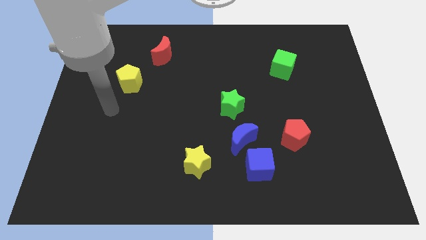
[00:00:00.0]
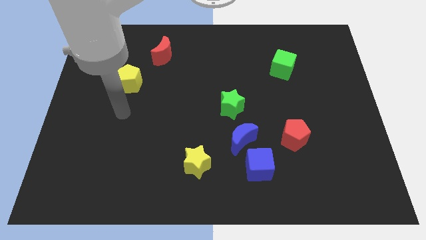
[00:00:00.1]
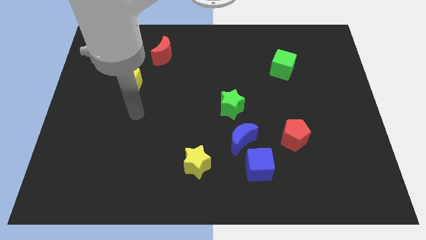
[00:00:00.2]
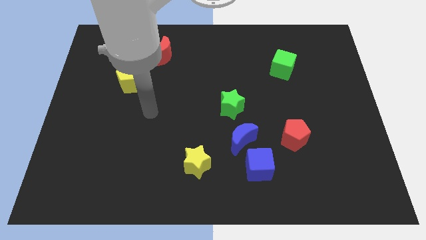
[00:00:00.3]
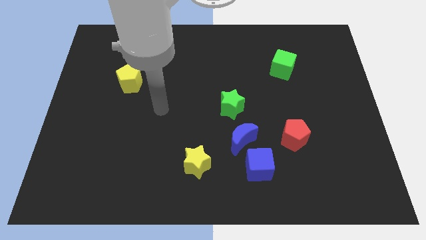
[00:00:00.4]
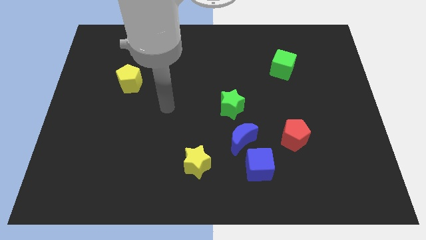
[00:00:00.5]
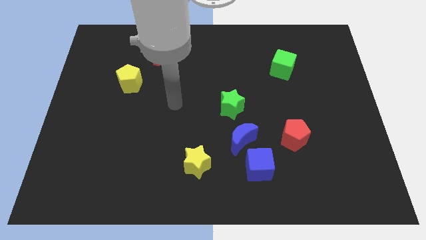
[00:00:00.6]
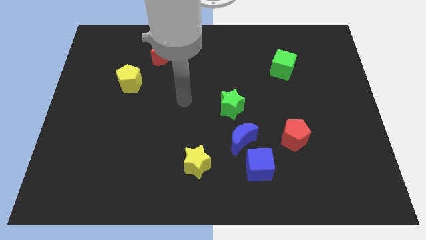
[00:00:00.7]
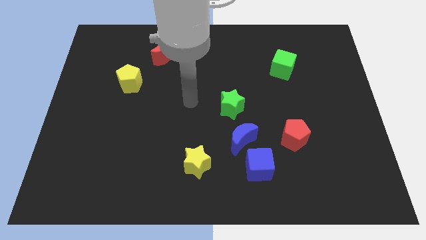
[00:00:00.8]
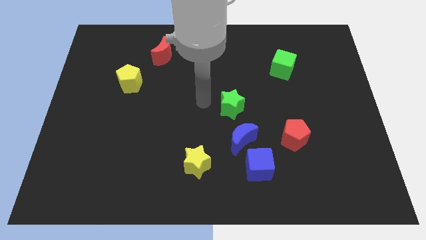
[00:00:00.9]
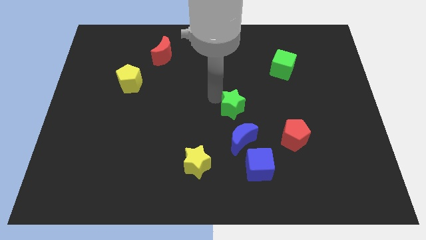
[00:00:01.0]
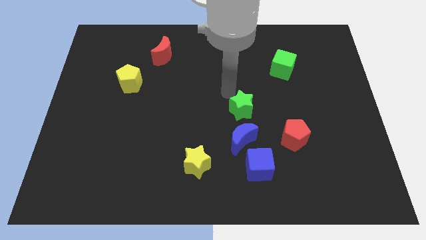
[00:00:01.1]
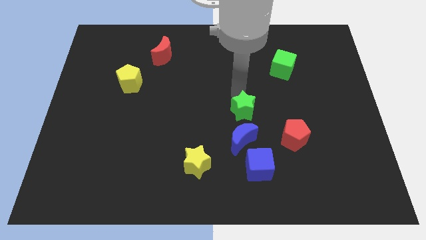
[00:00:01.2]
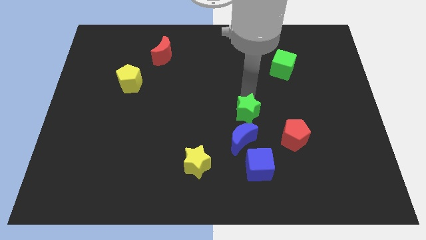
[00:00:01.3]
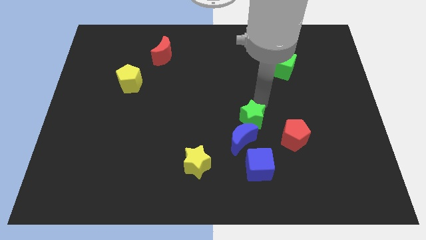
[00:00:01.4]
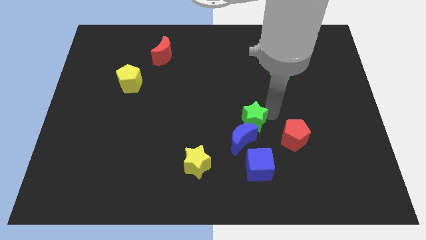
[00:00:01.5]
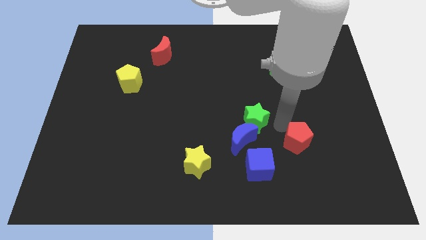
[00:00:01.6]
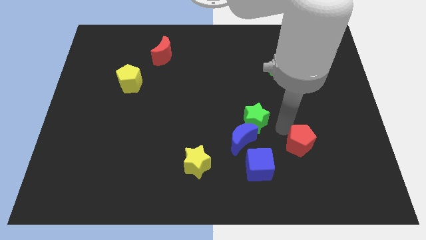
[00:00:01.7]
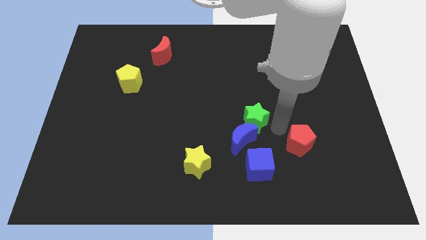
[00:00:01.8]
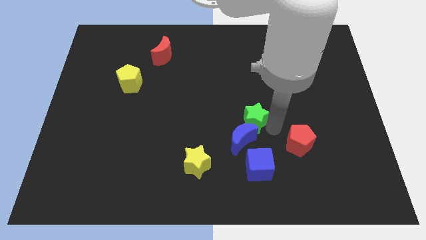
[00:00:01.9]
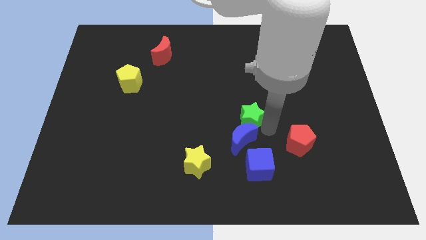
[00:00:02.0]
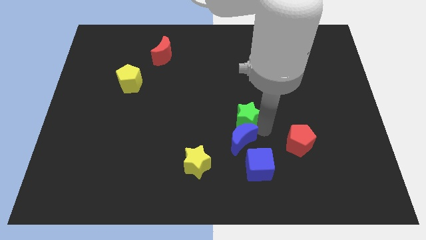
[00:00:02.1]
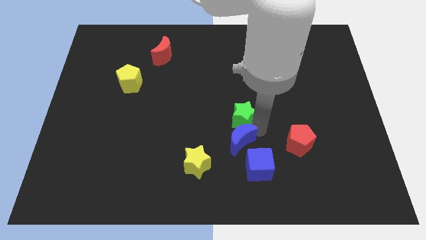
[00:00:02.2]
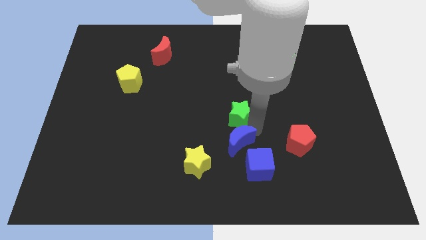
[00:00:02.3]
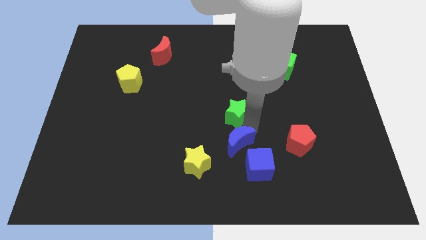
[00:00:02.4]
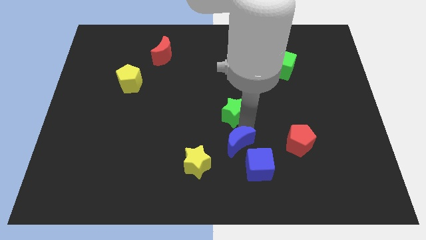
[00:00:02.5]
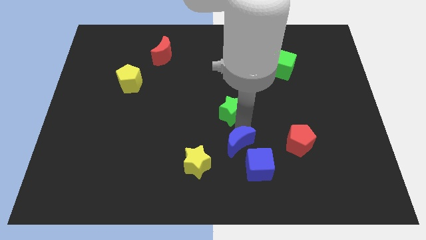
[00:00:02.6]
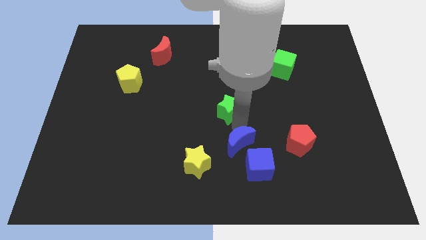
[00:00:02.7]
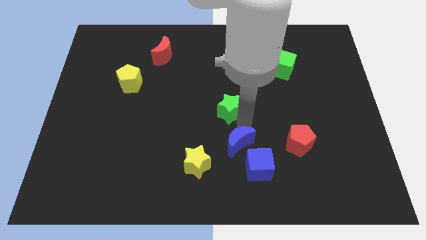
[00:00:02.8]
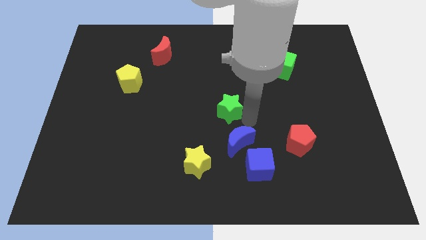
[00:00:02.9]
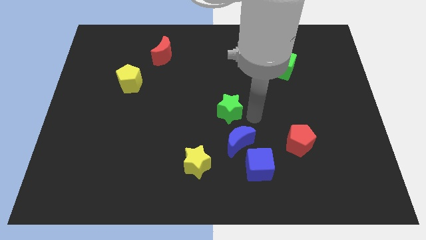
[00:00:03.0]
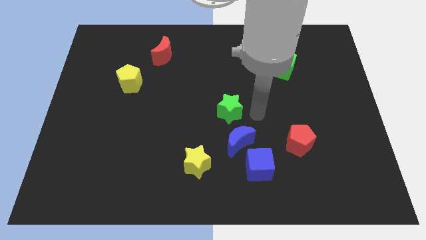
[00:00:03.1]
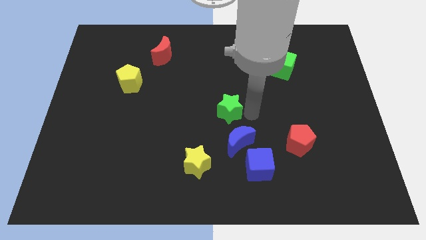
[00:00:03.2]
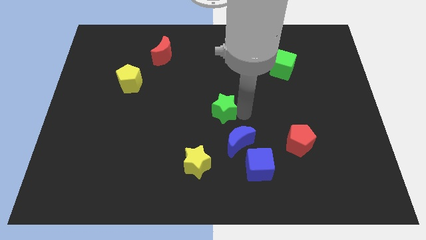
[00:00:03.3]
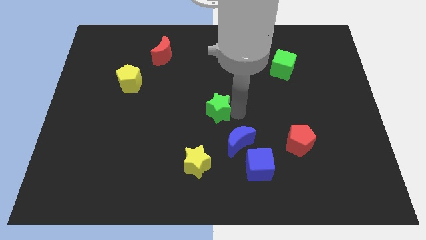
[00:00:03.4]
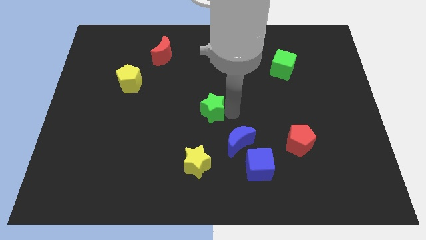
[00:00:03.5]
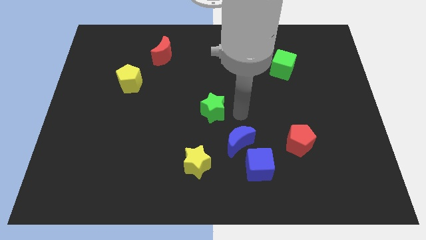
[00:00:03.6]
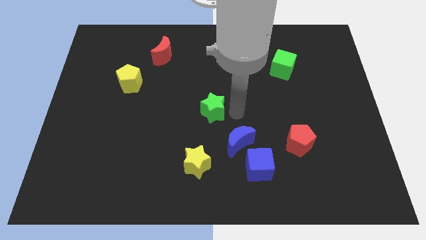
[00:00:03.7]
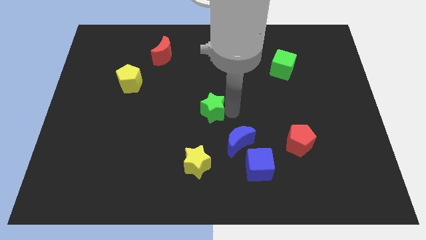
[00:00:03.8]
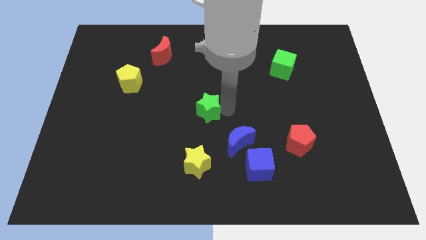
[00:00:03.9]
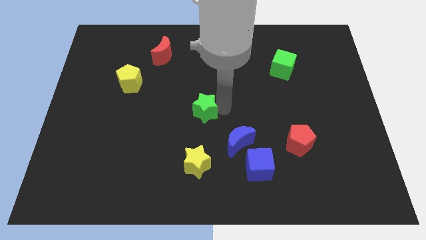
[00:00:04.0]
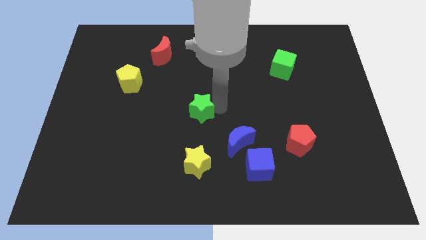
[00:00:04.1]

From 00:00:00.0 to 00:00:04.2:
slightly slide the green star left

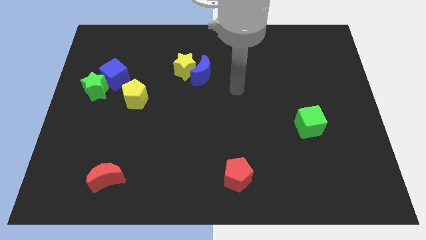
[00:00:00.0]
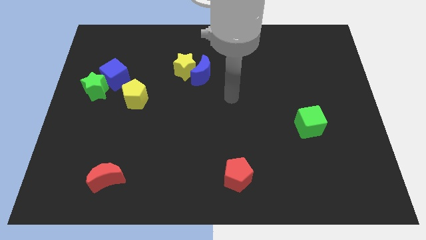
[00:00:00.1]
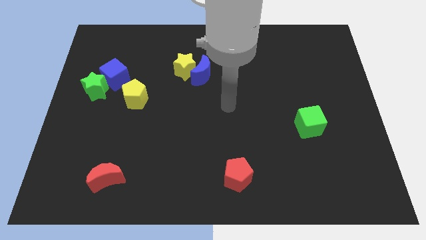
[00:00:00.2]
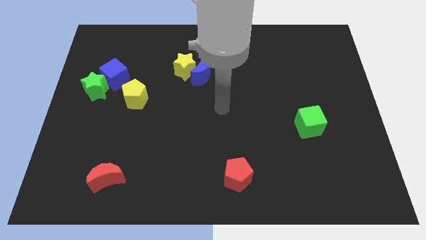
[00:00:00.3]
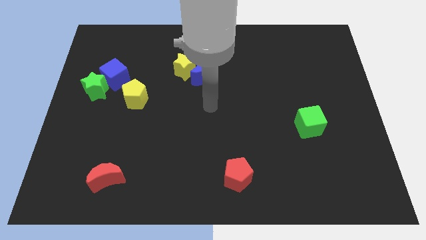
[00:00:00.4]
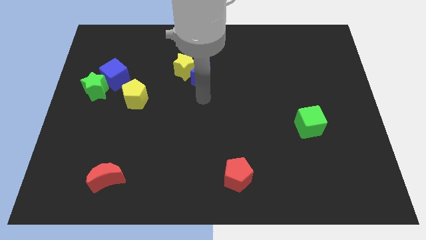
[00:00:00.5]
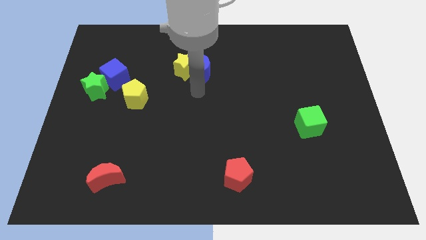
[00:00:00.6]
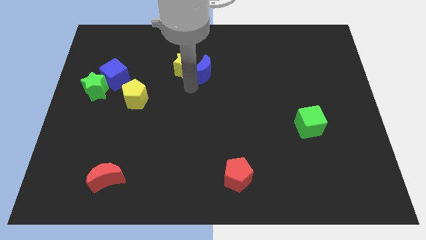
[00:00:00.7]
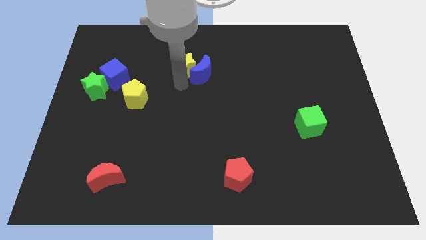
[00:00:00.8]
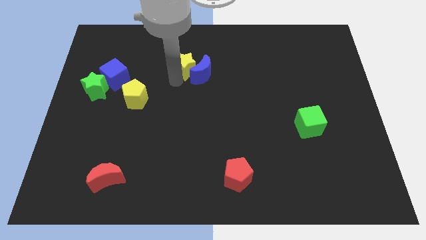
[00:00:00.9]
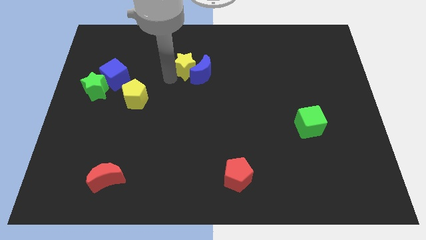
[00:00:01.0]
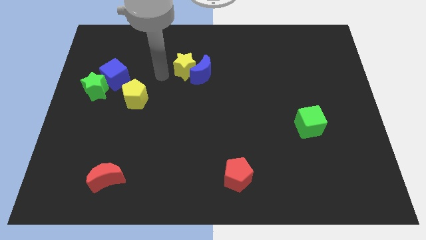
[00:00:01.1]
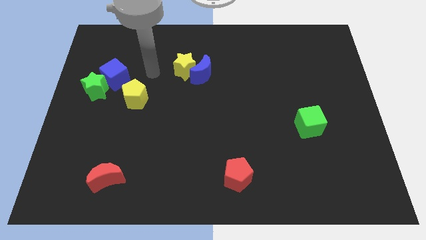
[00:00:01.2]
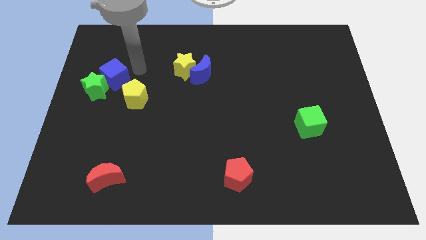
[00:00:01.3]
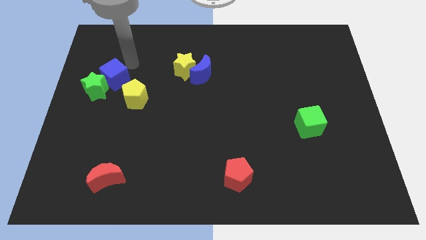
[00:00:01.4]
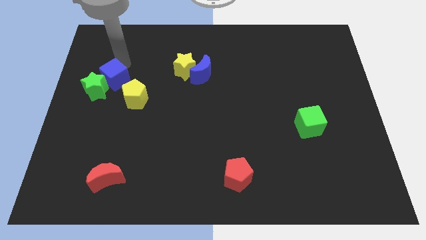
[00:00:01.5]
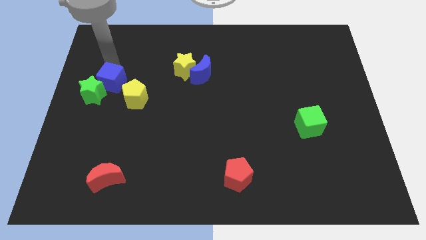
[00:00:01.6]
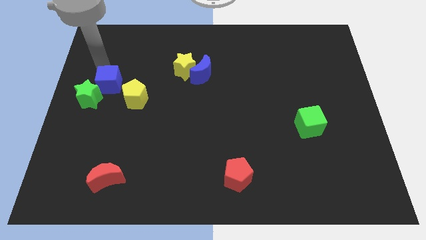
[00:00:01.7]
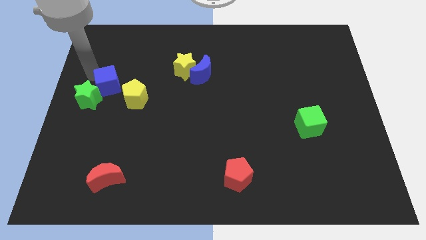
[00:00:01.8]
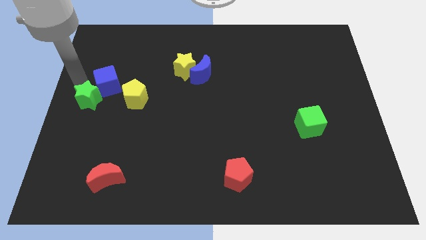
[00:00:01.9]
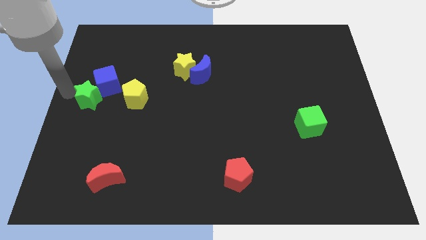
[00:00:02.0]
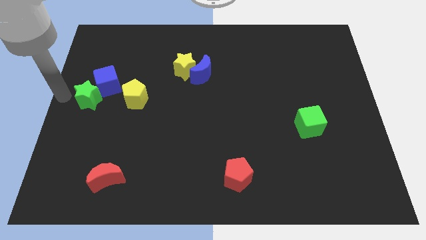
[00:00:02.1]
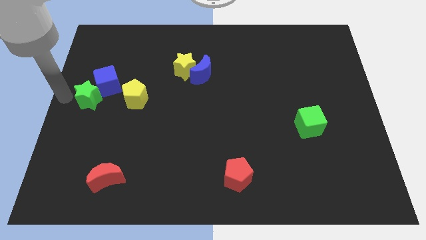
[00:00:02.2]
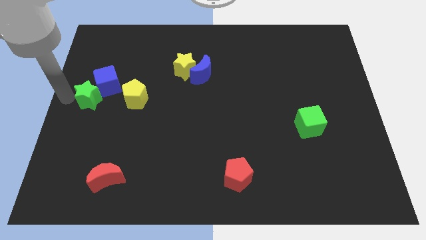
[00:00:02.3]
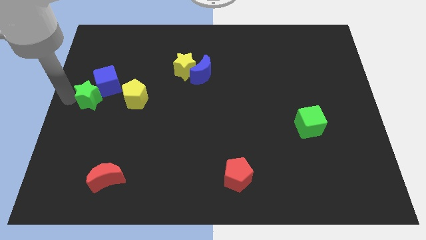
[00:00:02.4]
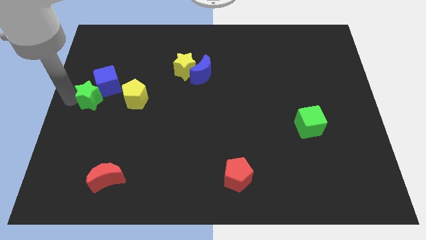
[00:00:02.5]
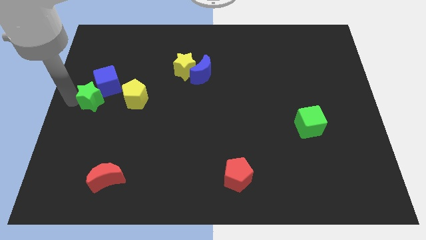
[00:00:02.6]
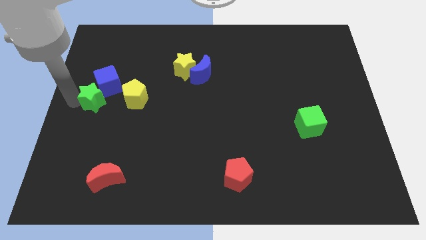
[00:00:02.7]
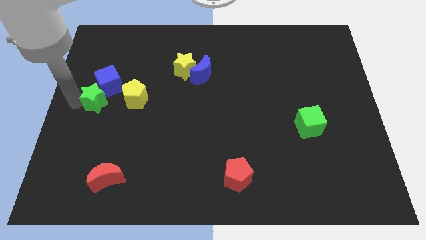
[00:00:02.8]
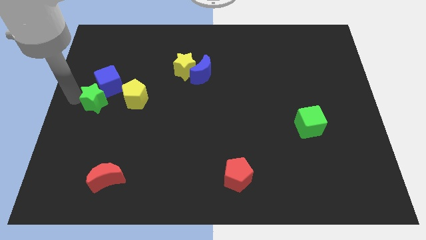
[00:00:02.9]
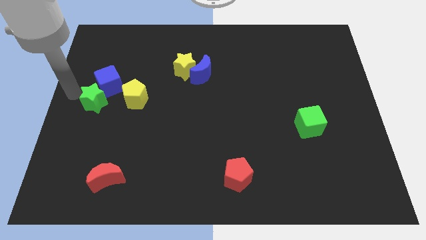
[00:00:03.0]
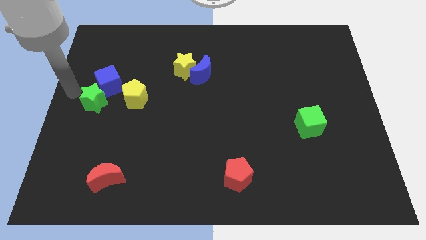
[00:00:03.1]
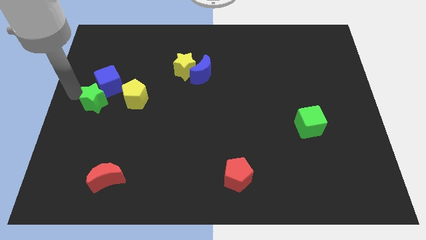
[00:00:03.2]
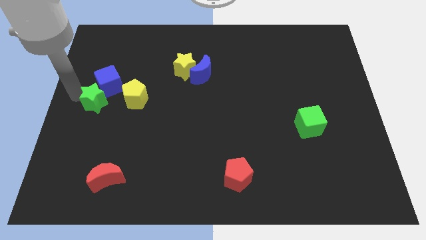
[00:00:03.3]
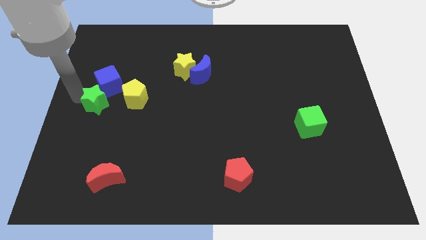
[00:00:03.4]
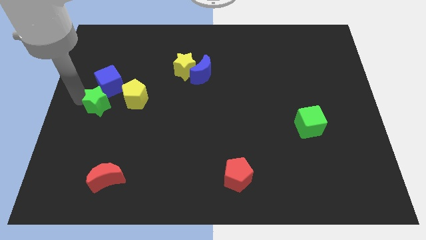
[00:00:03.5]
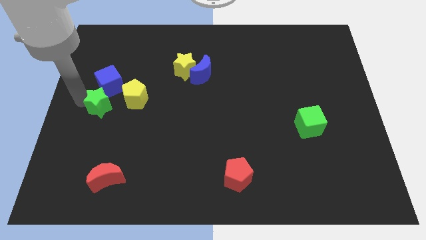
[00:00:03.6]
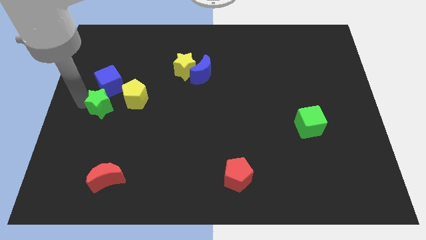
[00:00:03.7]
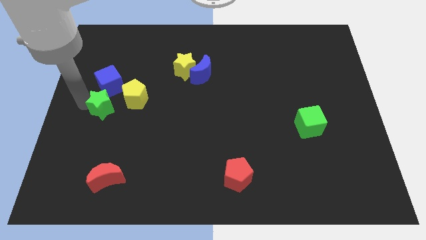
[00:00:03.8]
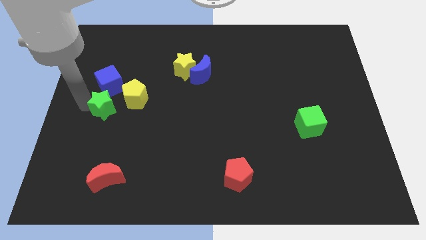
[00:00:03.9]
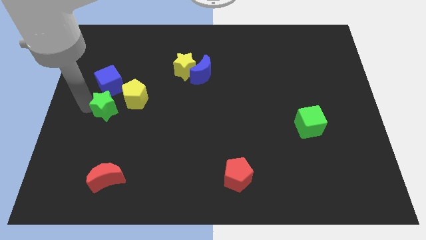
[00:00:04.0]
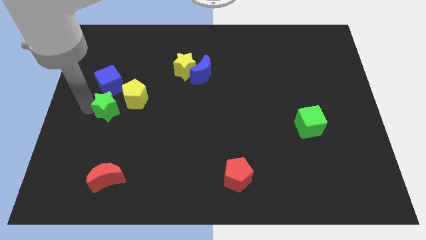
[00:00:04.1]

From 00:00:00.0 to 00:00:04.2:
push the green star diagonally down and right somewhat
